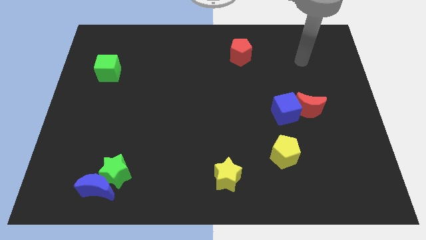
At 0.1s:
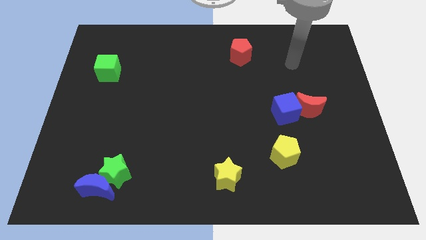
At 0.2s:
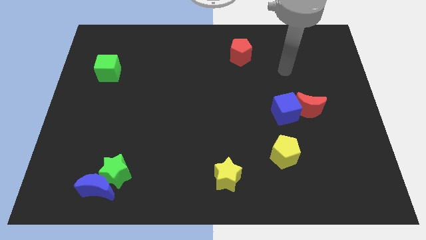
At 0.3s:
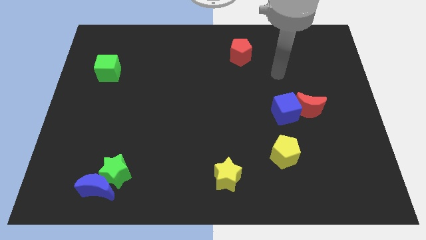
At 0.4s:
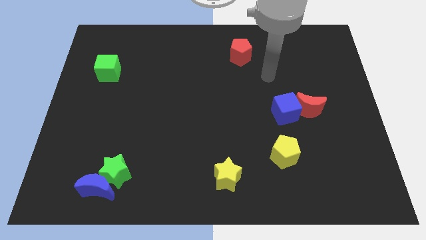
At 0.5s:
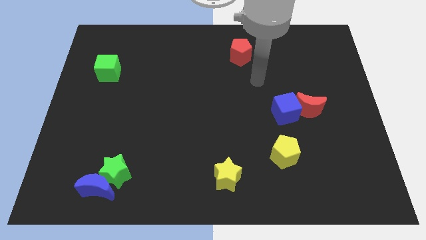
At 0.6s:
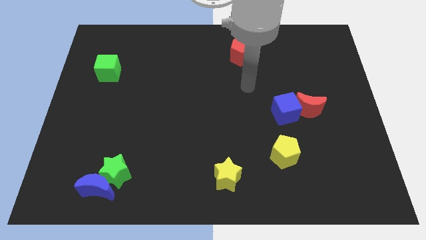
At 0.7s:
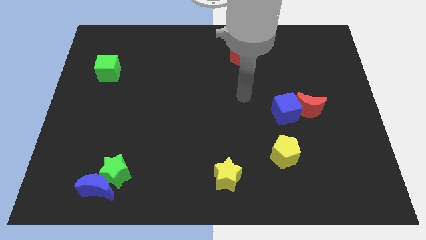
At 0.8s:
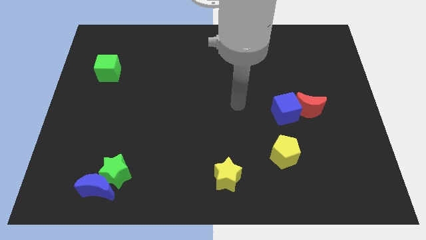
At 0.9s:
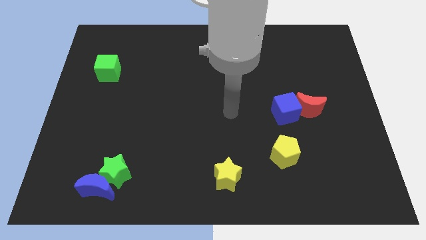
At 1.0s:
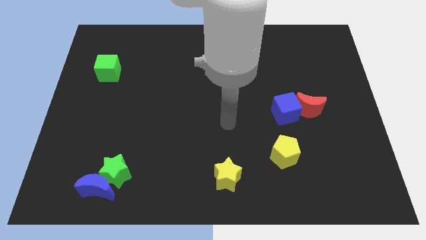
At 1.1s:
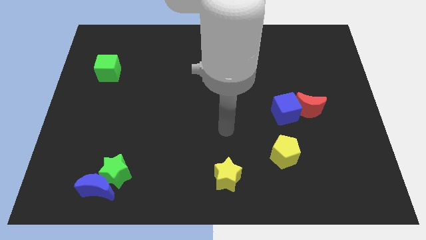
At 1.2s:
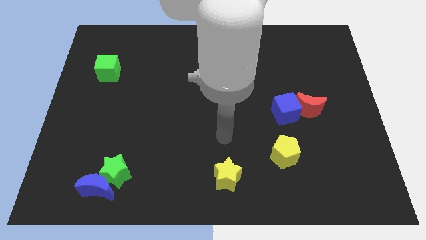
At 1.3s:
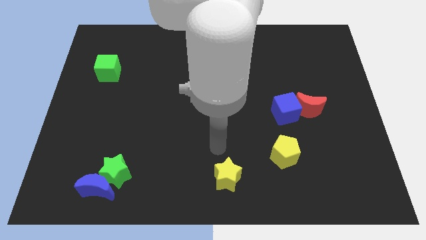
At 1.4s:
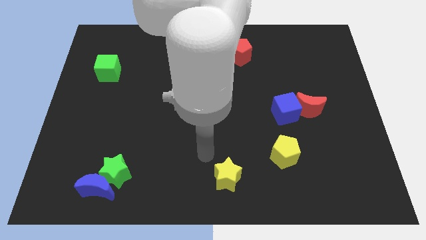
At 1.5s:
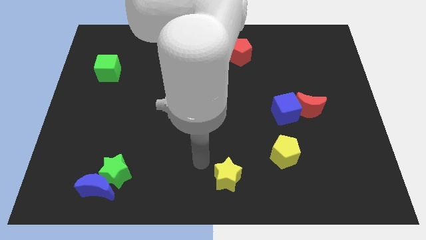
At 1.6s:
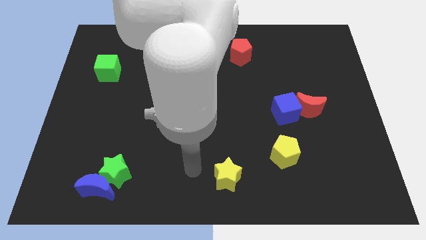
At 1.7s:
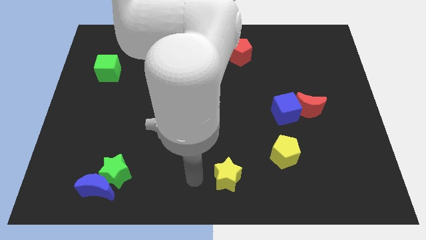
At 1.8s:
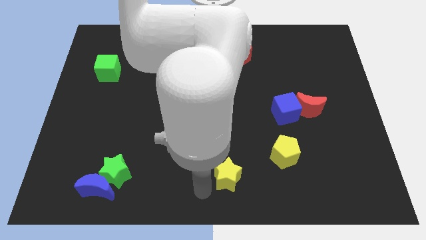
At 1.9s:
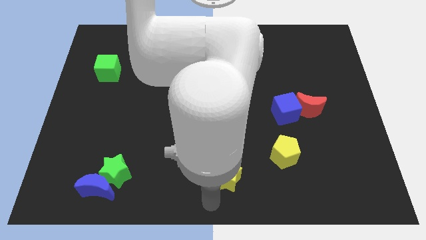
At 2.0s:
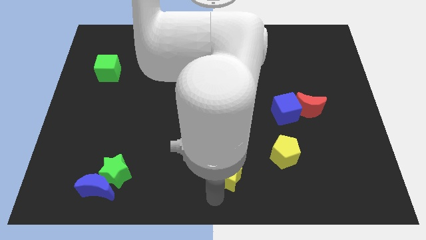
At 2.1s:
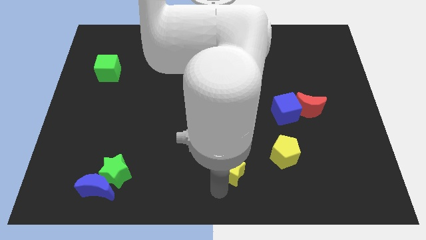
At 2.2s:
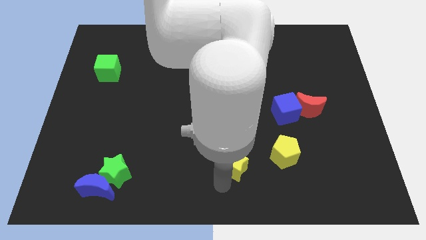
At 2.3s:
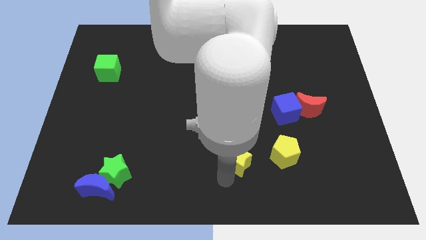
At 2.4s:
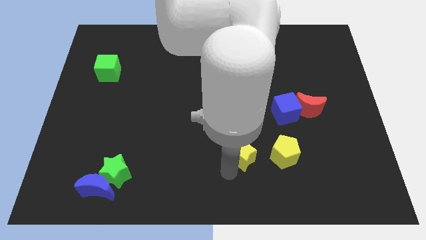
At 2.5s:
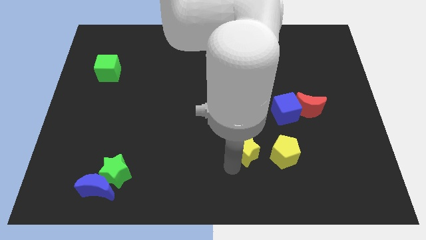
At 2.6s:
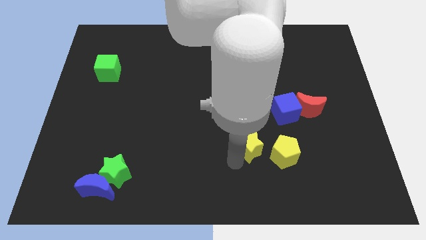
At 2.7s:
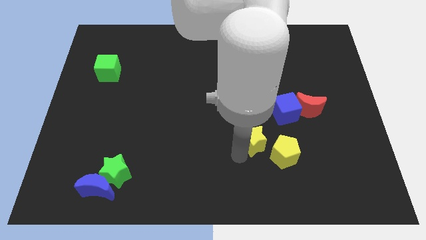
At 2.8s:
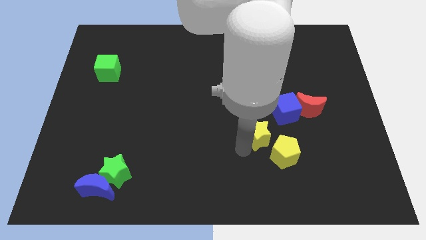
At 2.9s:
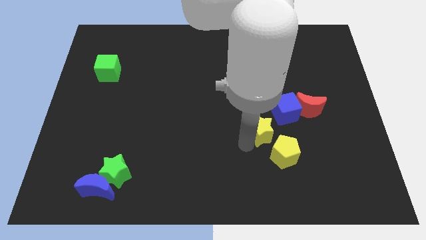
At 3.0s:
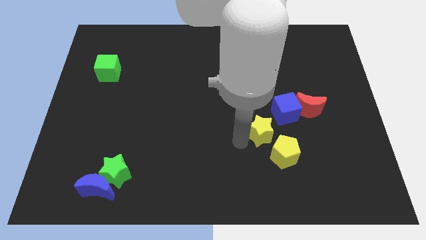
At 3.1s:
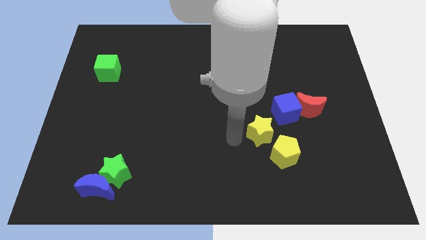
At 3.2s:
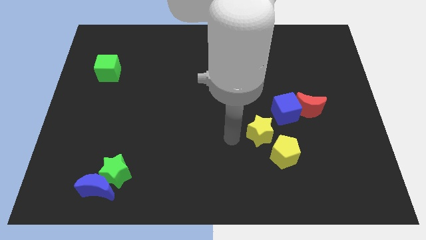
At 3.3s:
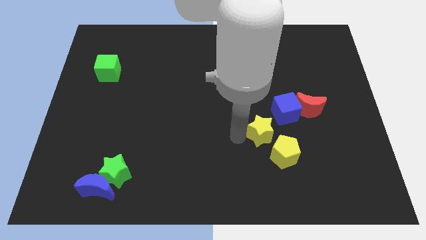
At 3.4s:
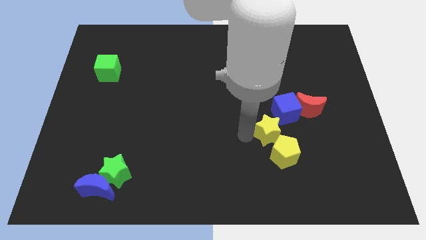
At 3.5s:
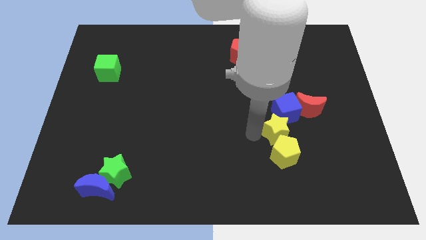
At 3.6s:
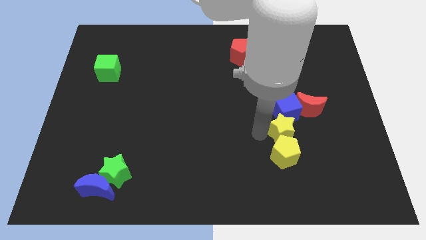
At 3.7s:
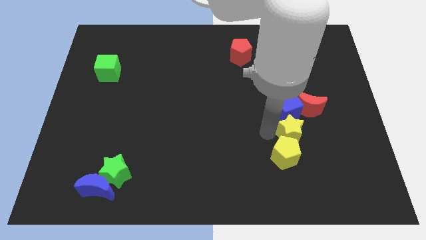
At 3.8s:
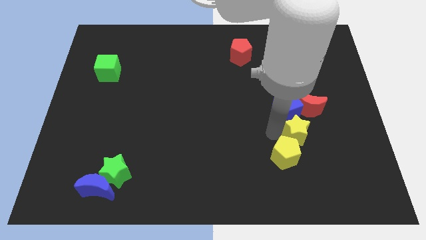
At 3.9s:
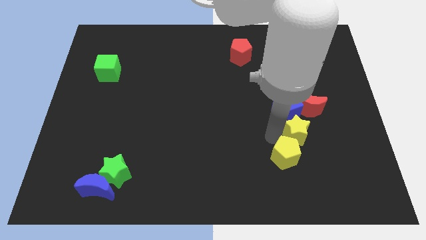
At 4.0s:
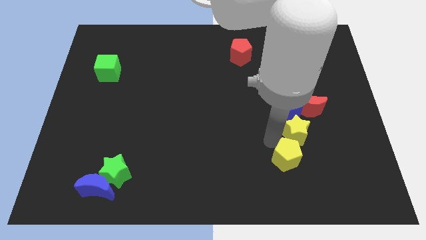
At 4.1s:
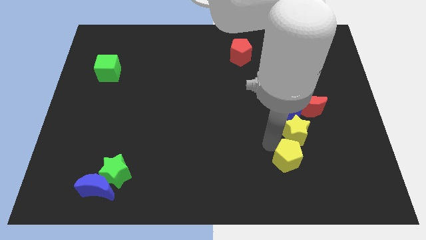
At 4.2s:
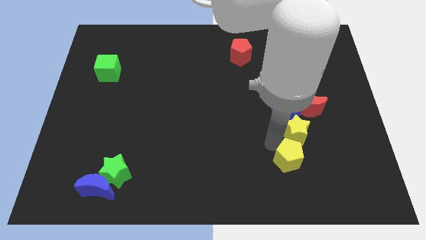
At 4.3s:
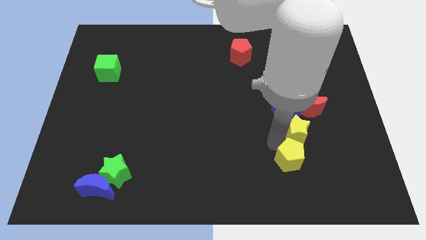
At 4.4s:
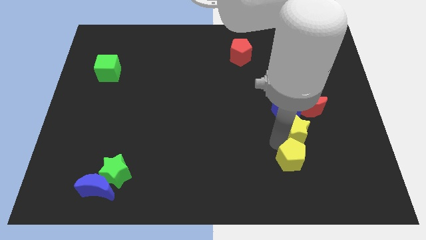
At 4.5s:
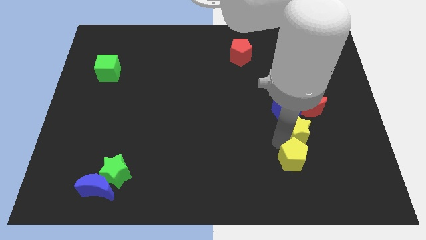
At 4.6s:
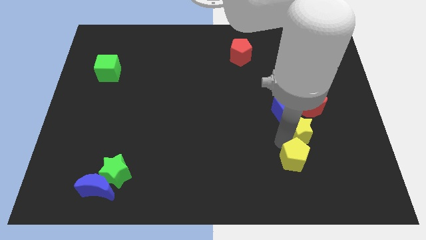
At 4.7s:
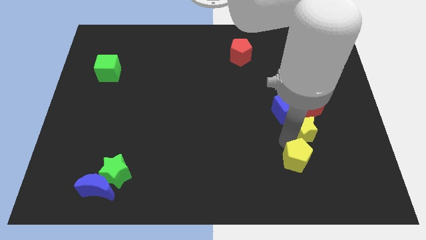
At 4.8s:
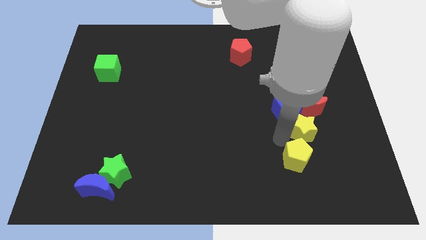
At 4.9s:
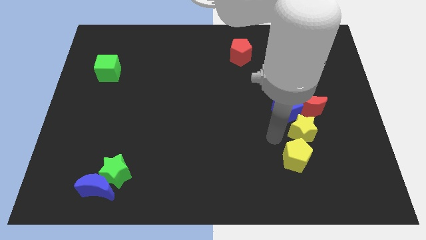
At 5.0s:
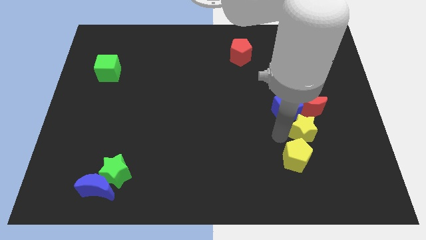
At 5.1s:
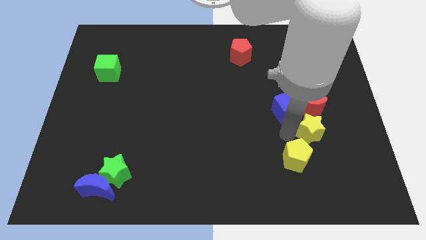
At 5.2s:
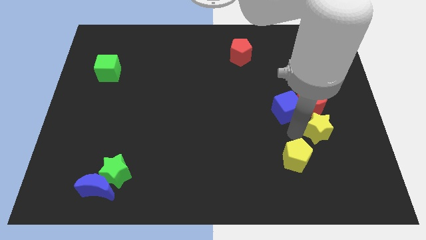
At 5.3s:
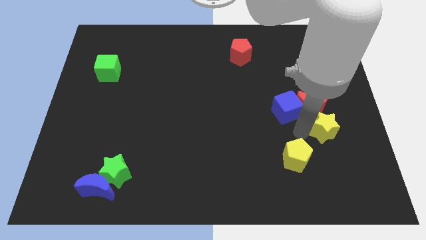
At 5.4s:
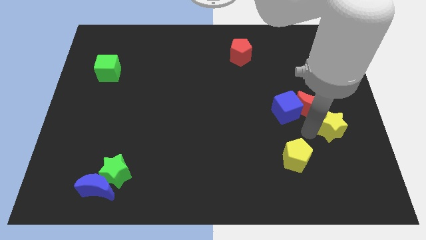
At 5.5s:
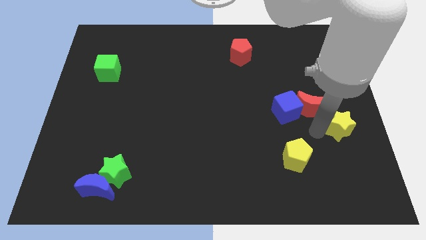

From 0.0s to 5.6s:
push the yellow star to the right side

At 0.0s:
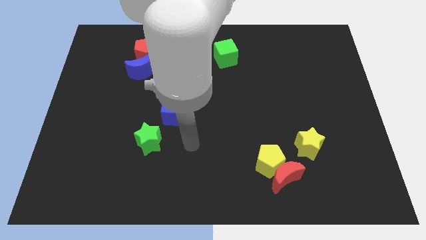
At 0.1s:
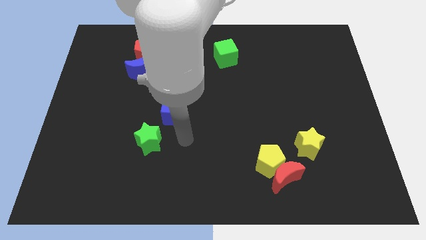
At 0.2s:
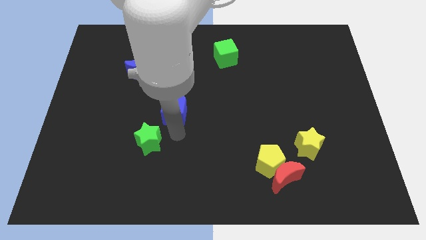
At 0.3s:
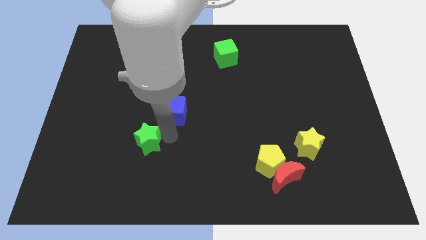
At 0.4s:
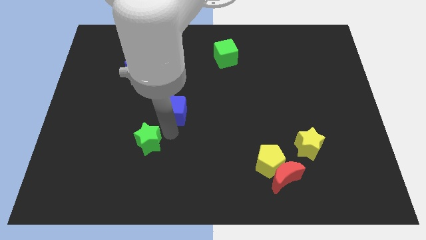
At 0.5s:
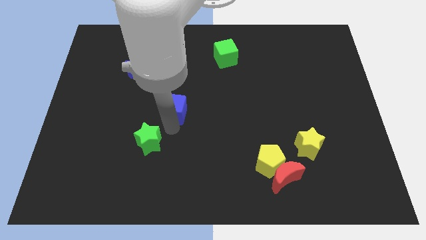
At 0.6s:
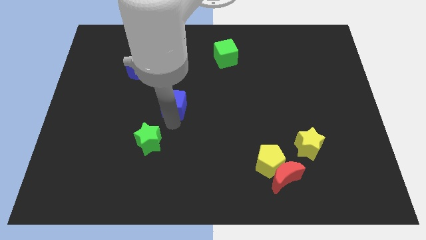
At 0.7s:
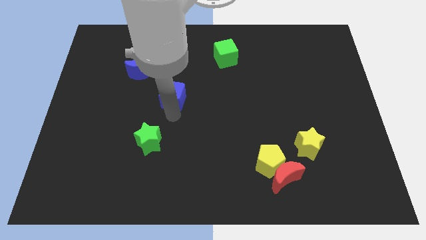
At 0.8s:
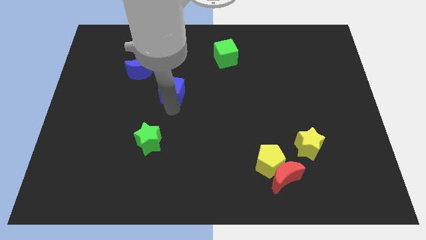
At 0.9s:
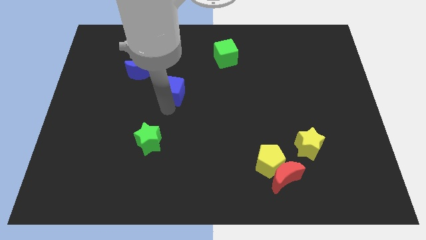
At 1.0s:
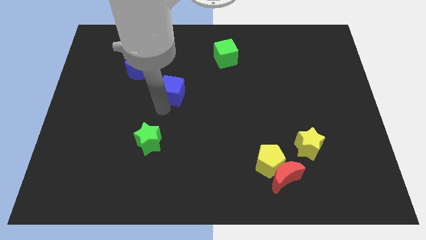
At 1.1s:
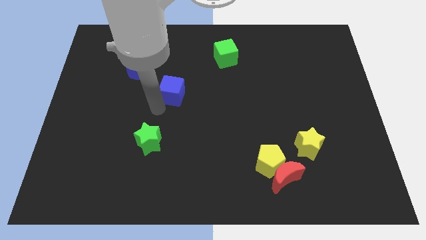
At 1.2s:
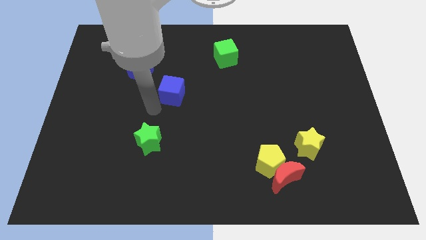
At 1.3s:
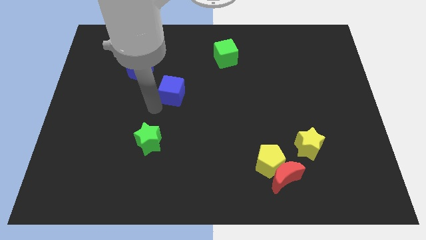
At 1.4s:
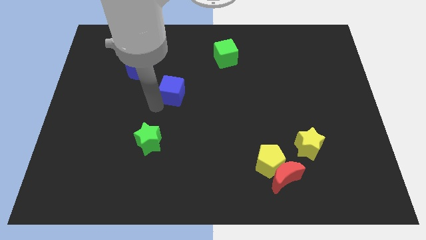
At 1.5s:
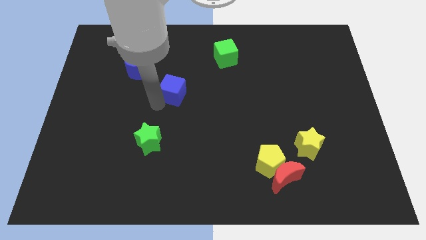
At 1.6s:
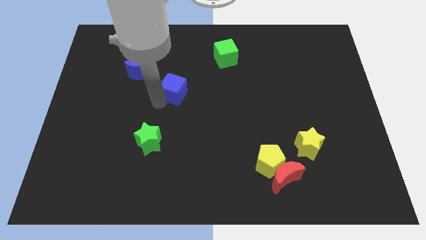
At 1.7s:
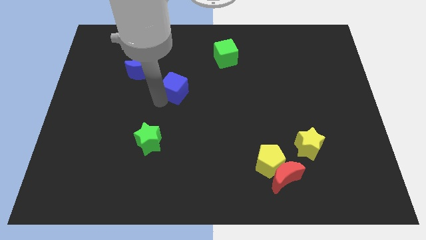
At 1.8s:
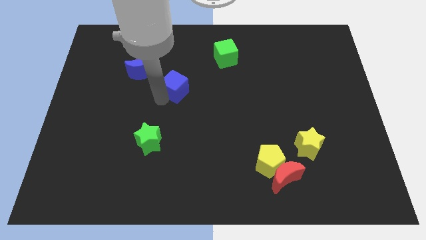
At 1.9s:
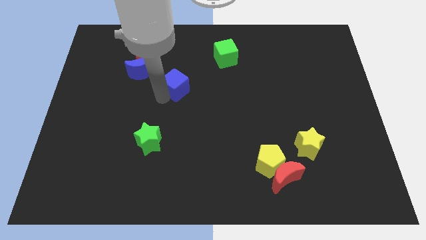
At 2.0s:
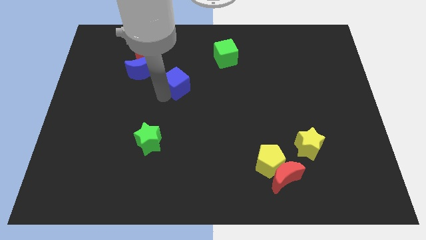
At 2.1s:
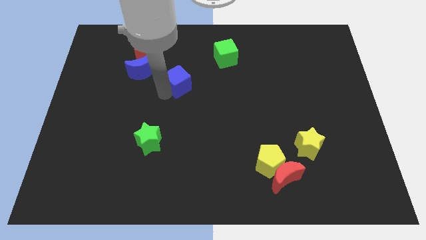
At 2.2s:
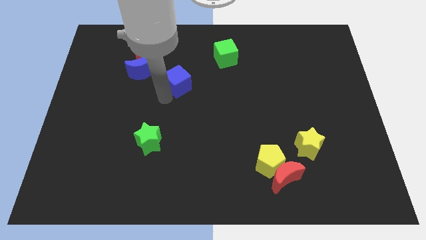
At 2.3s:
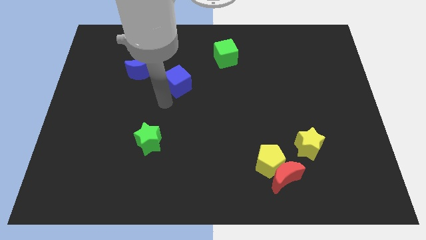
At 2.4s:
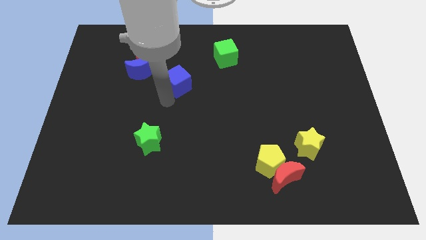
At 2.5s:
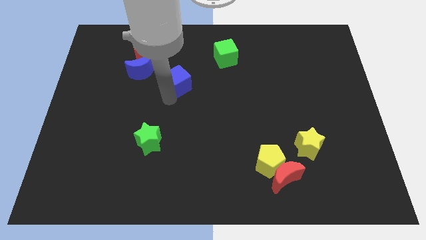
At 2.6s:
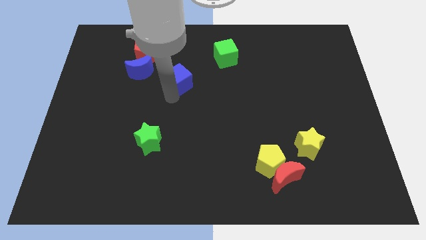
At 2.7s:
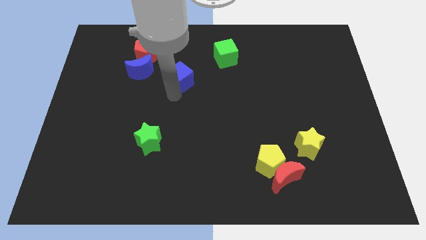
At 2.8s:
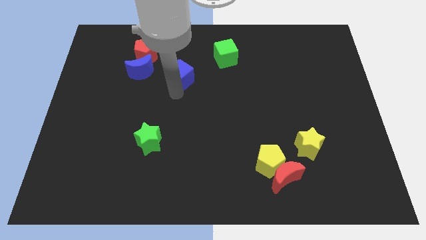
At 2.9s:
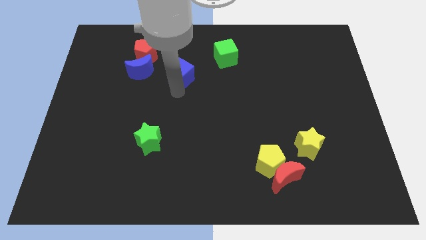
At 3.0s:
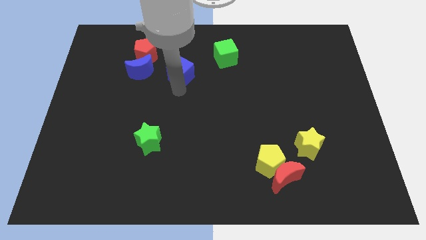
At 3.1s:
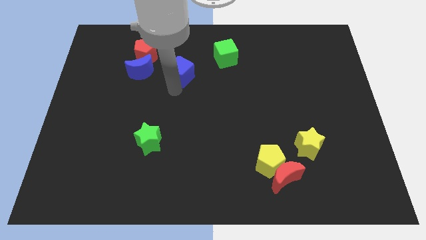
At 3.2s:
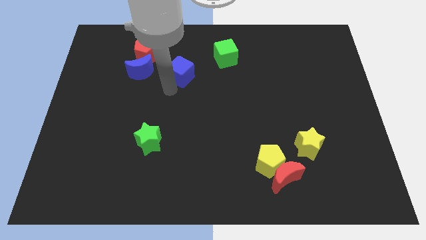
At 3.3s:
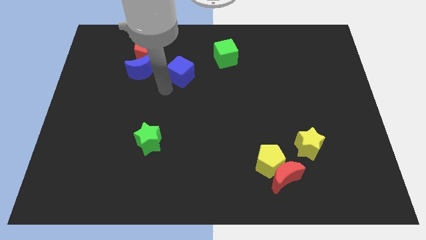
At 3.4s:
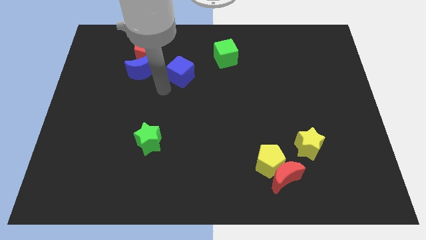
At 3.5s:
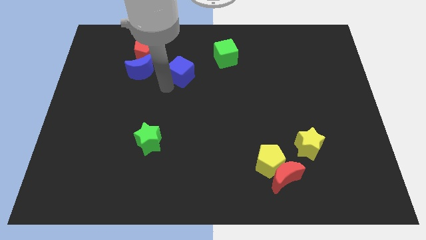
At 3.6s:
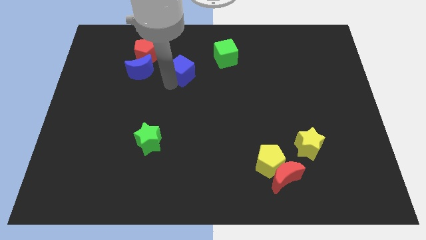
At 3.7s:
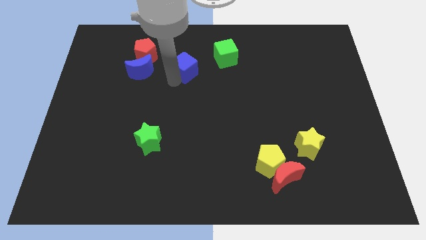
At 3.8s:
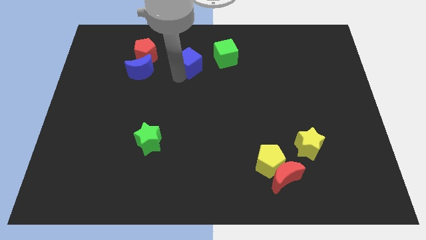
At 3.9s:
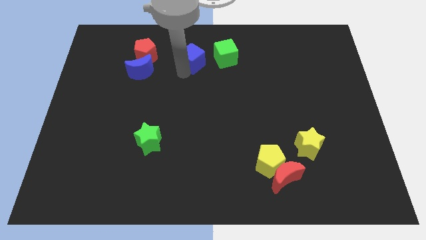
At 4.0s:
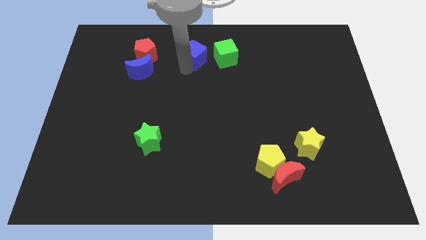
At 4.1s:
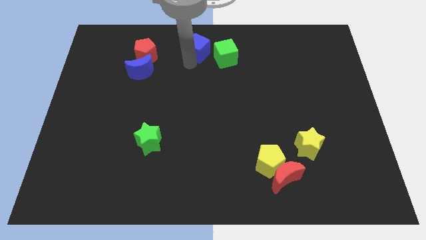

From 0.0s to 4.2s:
put the blue cube to the towards your base
